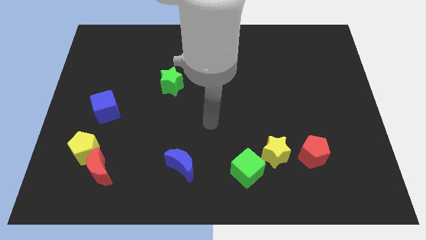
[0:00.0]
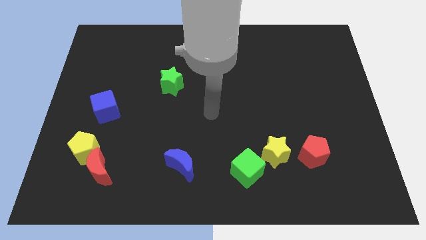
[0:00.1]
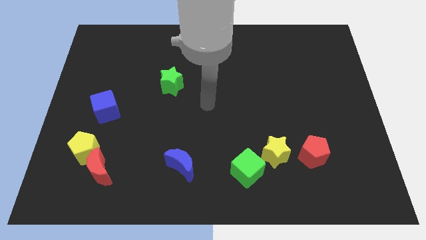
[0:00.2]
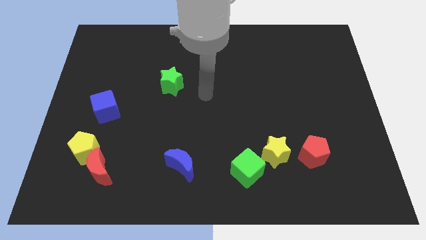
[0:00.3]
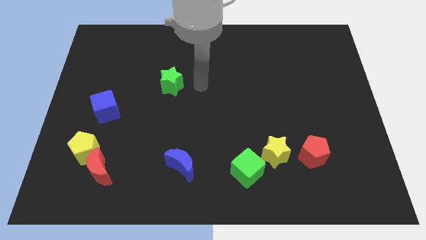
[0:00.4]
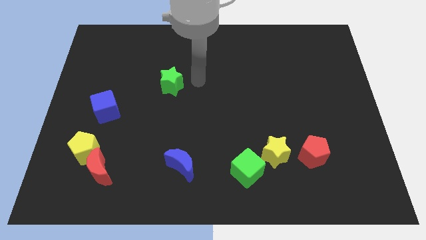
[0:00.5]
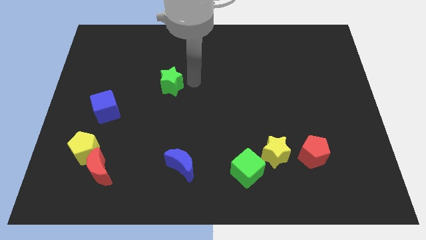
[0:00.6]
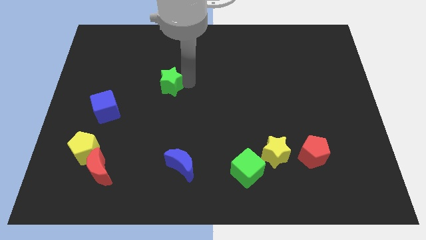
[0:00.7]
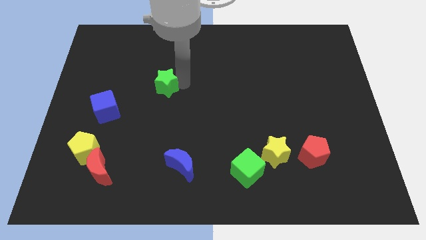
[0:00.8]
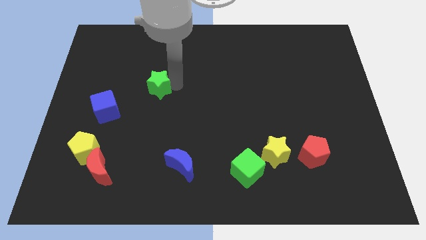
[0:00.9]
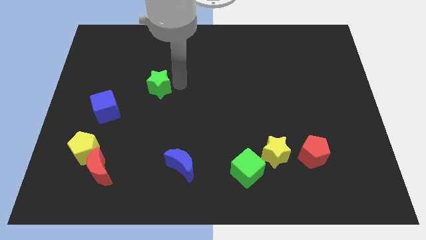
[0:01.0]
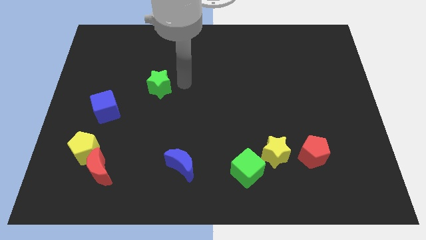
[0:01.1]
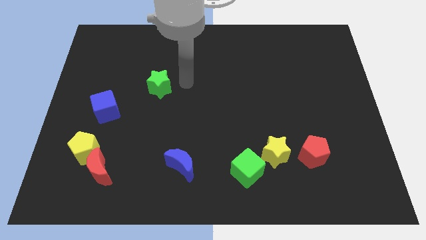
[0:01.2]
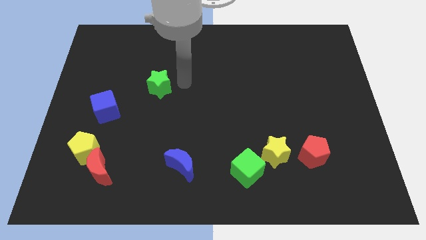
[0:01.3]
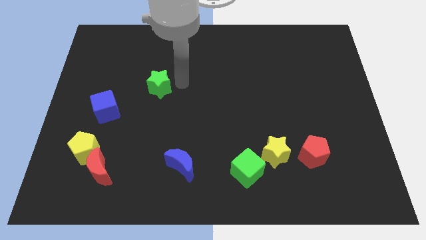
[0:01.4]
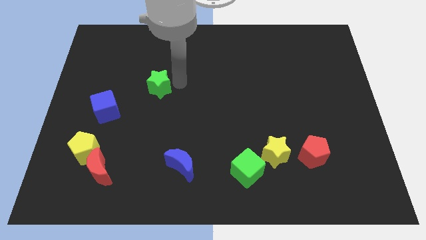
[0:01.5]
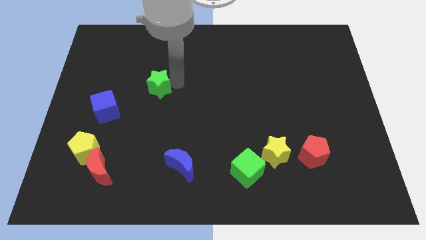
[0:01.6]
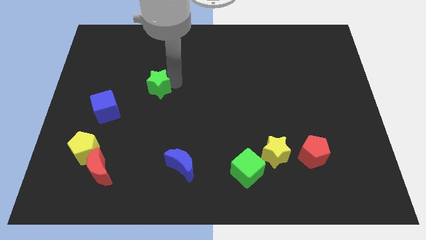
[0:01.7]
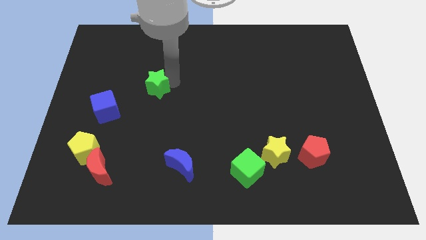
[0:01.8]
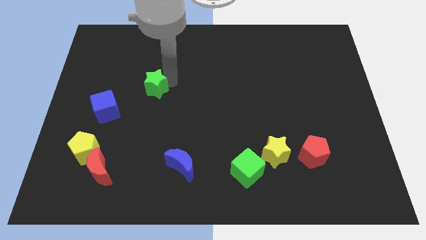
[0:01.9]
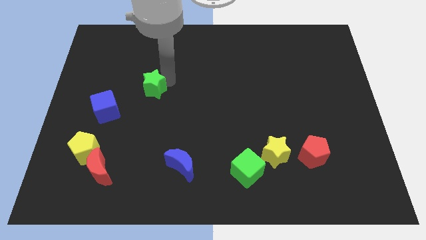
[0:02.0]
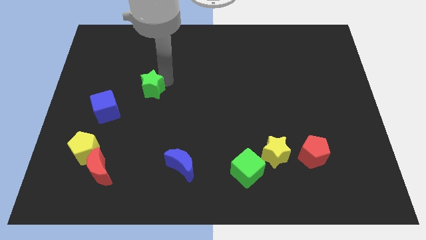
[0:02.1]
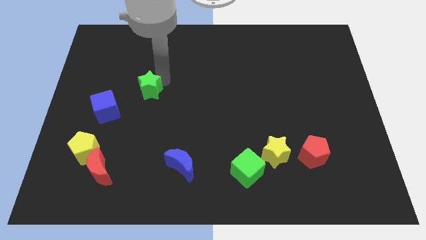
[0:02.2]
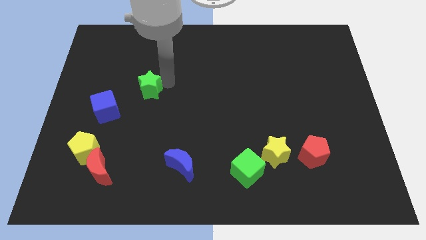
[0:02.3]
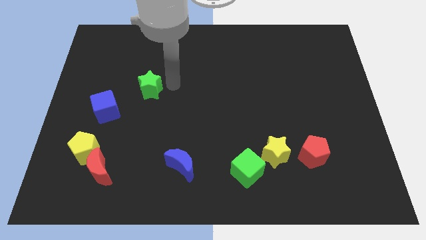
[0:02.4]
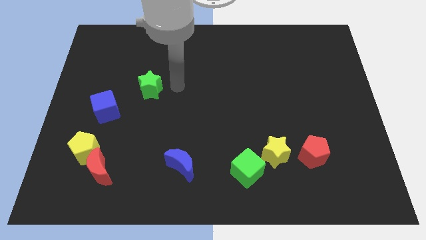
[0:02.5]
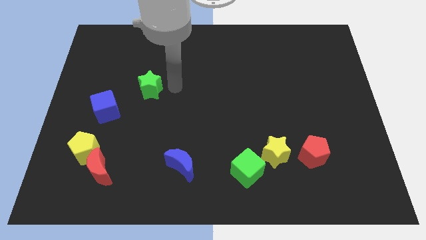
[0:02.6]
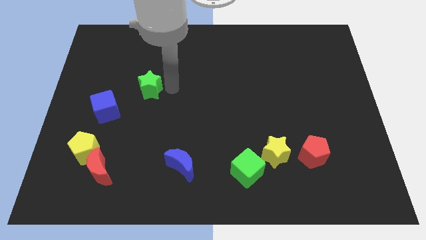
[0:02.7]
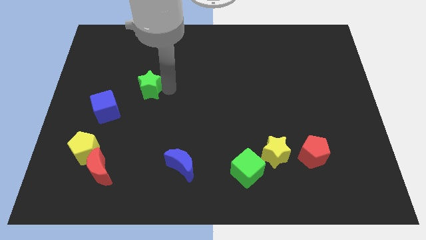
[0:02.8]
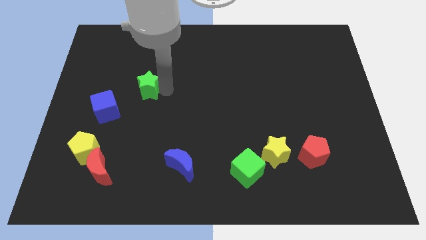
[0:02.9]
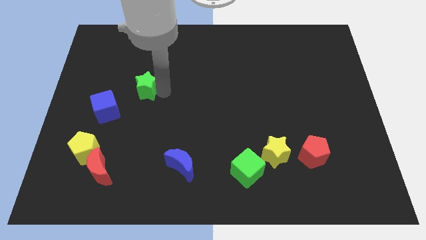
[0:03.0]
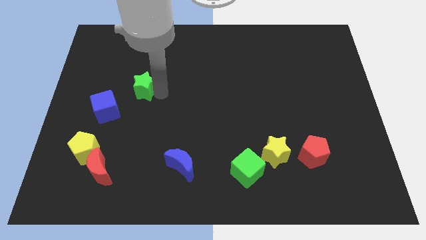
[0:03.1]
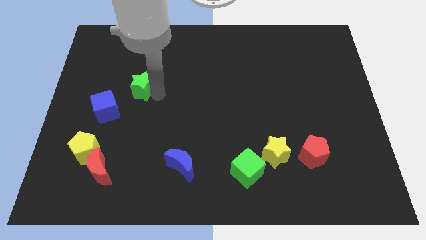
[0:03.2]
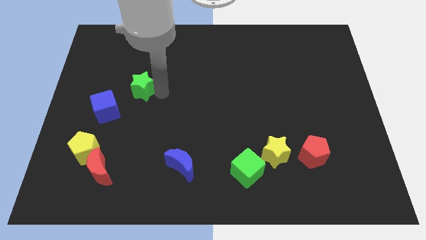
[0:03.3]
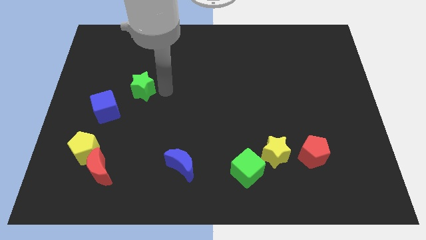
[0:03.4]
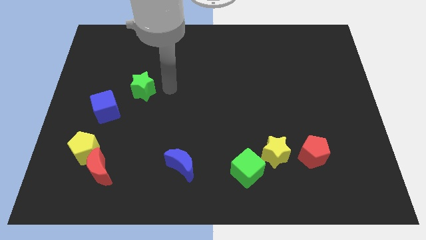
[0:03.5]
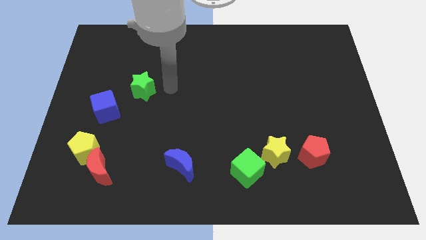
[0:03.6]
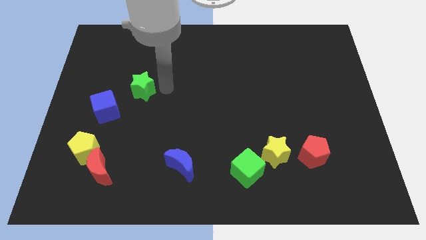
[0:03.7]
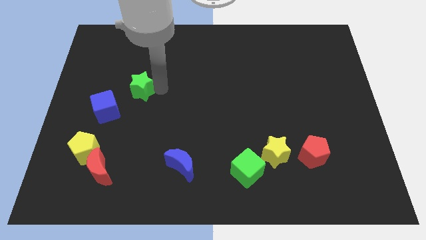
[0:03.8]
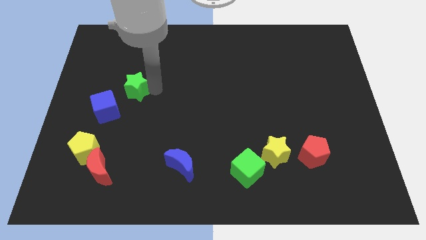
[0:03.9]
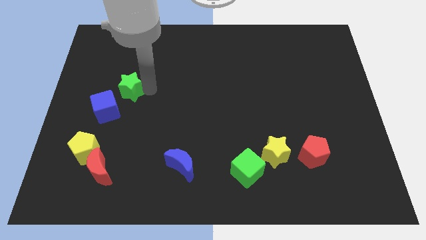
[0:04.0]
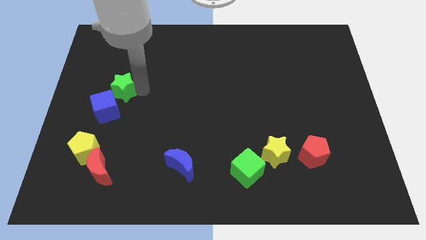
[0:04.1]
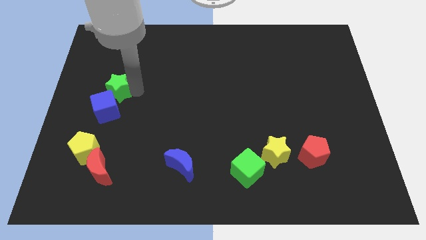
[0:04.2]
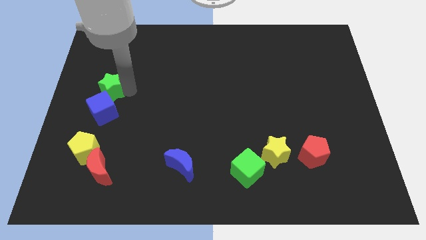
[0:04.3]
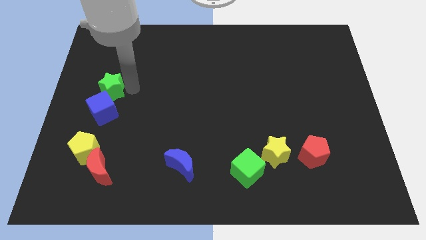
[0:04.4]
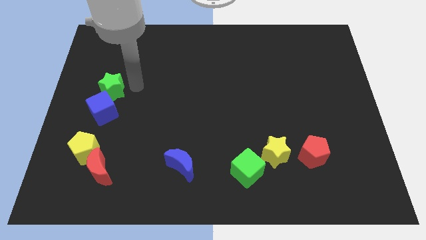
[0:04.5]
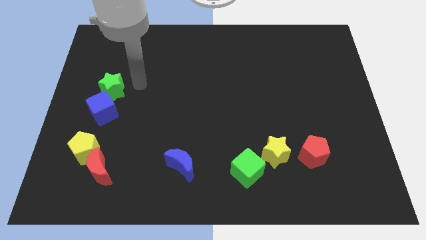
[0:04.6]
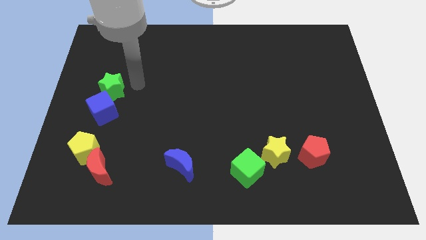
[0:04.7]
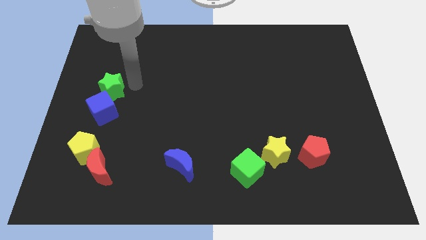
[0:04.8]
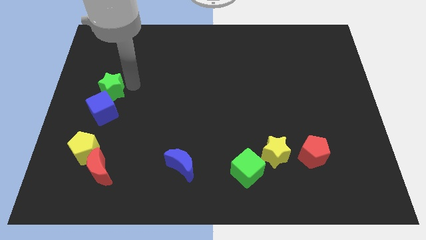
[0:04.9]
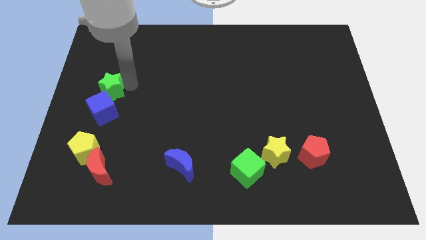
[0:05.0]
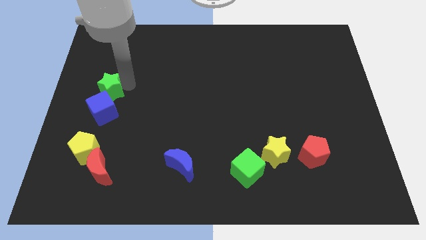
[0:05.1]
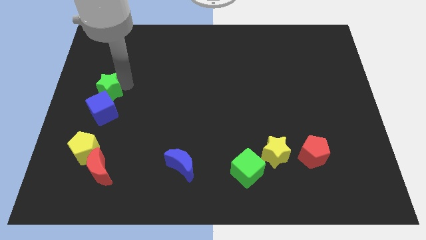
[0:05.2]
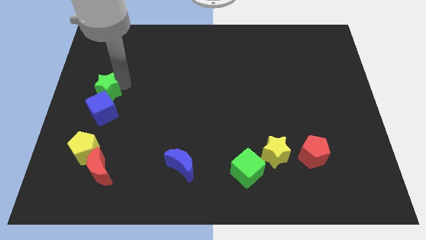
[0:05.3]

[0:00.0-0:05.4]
put the green star to the left side
